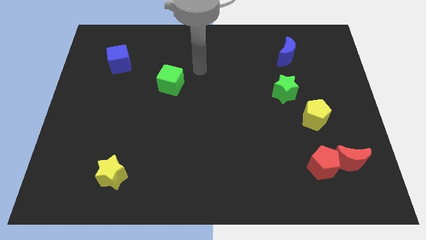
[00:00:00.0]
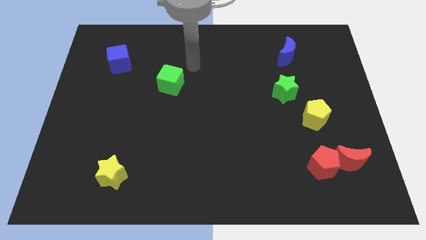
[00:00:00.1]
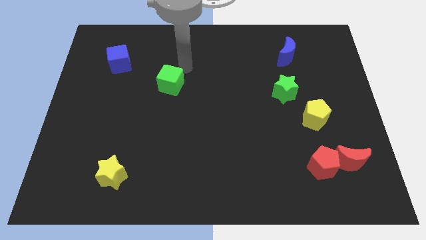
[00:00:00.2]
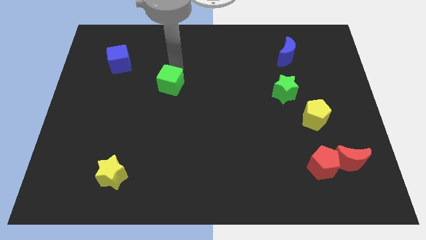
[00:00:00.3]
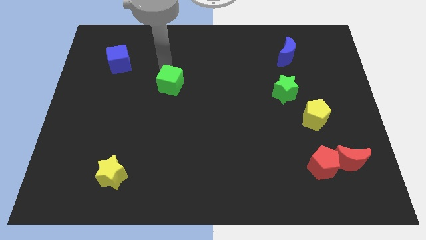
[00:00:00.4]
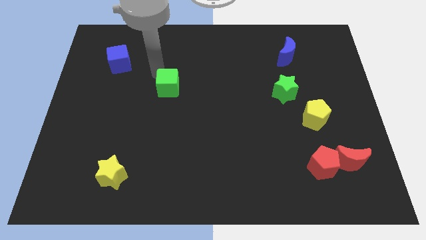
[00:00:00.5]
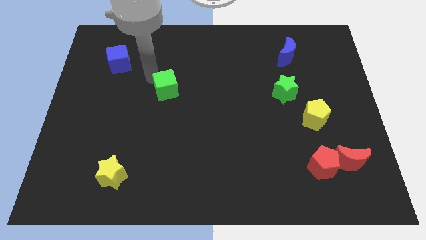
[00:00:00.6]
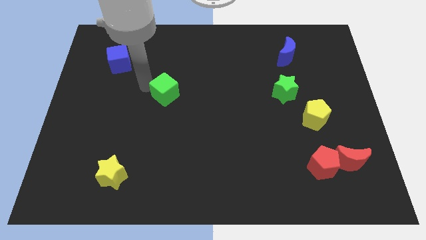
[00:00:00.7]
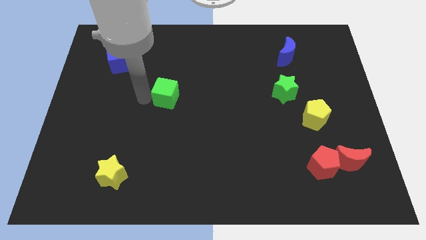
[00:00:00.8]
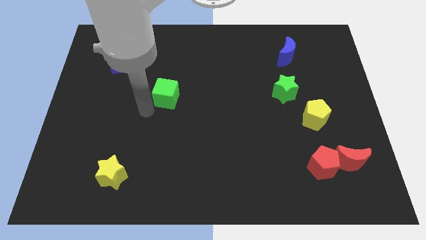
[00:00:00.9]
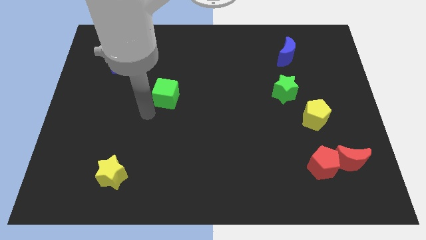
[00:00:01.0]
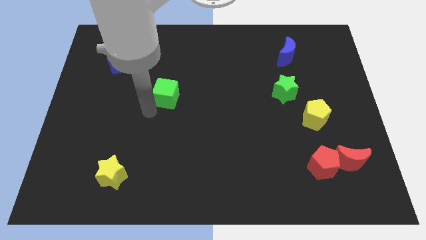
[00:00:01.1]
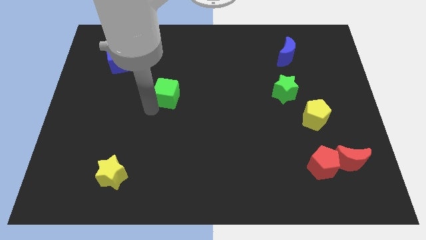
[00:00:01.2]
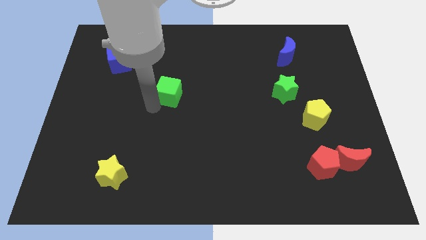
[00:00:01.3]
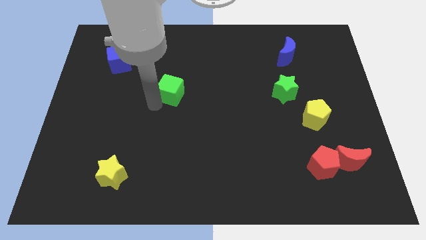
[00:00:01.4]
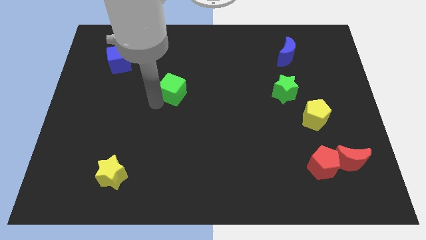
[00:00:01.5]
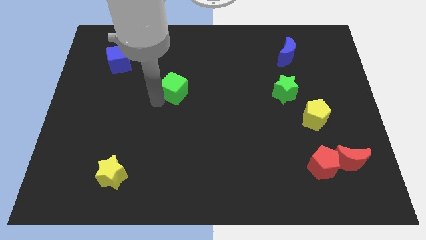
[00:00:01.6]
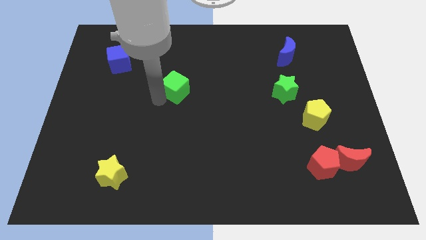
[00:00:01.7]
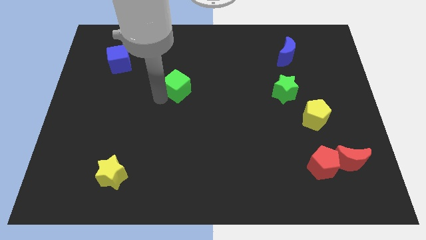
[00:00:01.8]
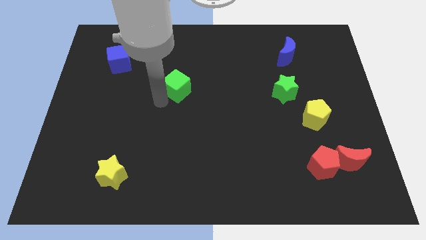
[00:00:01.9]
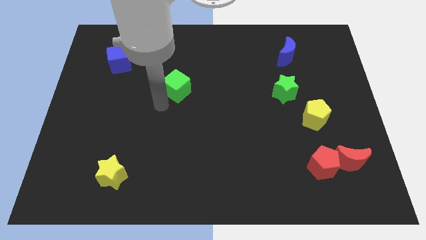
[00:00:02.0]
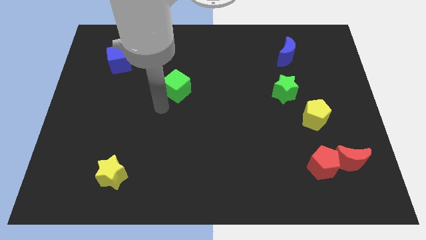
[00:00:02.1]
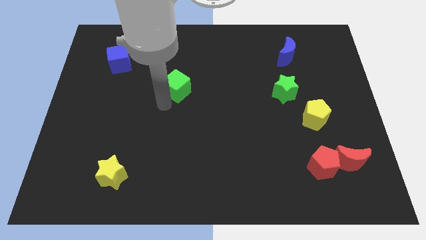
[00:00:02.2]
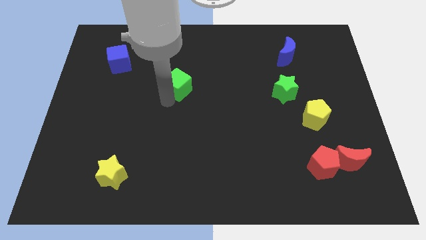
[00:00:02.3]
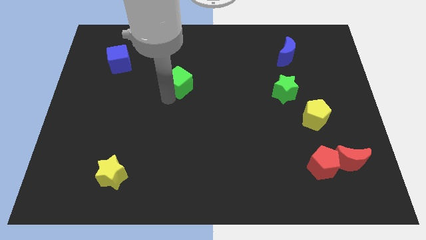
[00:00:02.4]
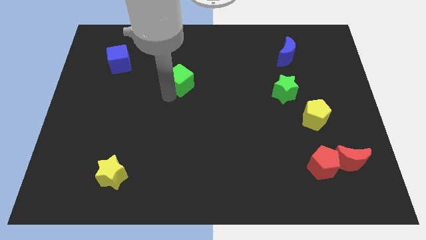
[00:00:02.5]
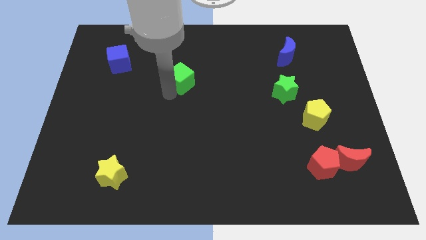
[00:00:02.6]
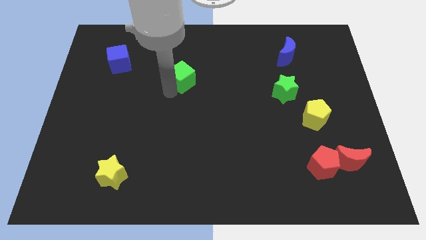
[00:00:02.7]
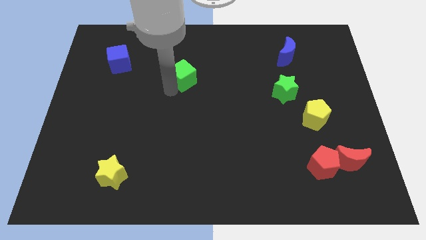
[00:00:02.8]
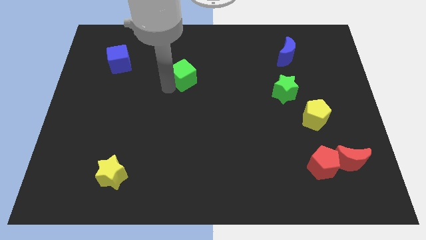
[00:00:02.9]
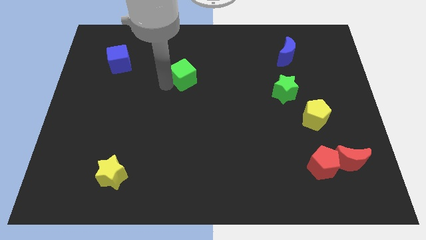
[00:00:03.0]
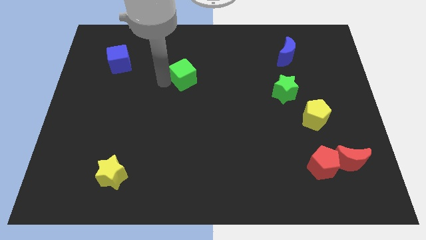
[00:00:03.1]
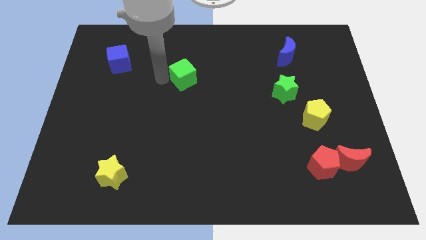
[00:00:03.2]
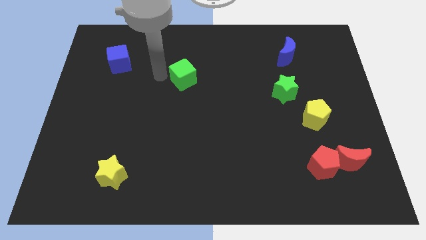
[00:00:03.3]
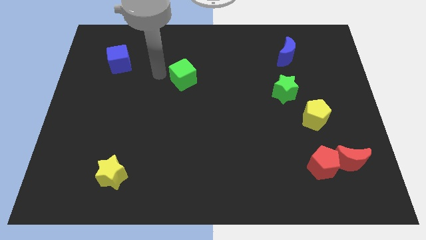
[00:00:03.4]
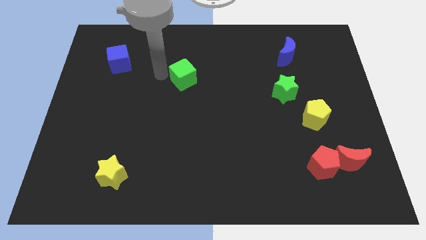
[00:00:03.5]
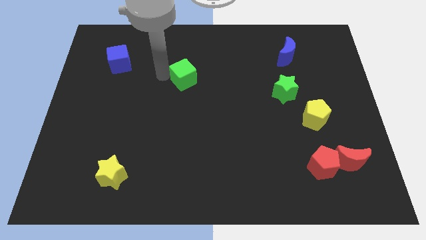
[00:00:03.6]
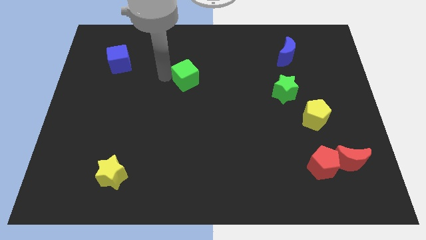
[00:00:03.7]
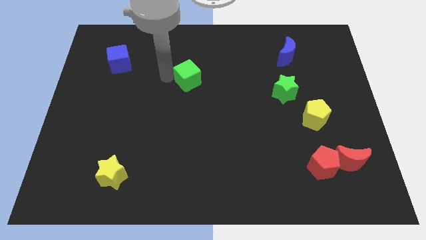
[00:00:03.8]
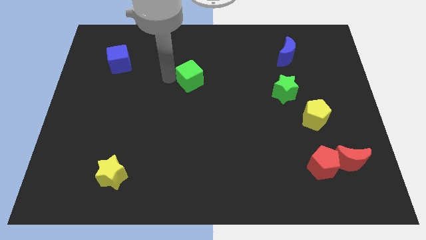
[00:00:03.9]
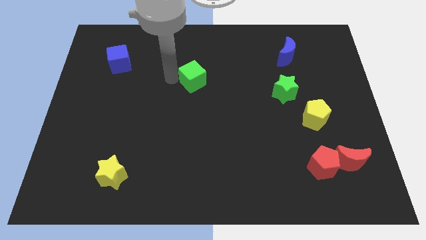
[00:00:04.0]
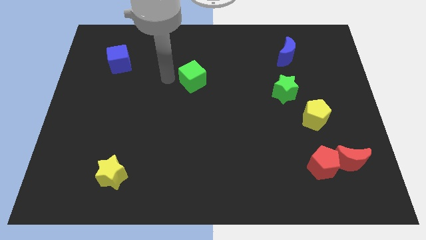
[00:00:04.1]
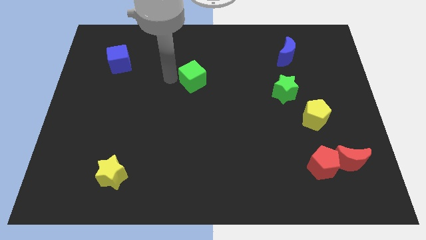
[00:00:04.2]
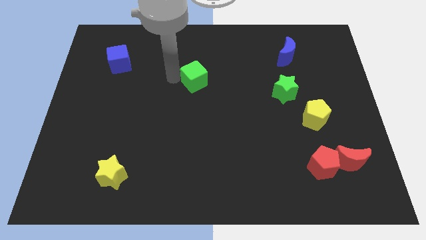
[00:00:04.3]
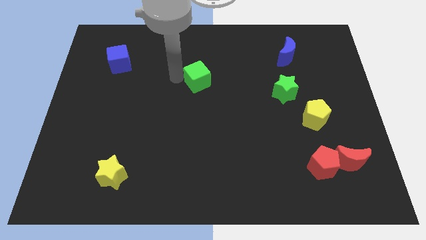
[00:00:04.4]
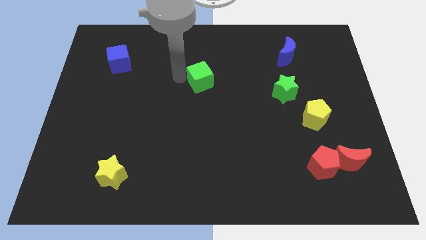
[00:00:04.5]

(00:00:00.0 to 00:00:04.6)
slide the green cube somewhat to the right

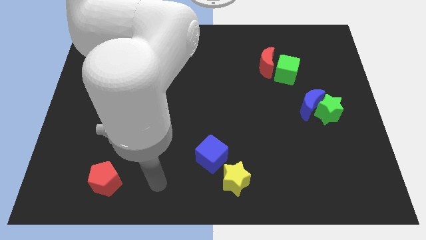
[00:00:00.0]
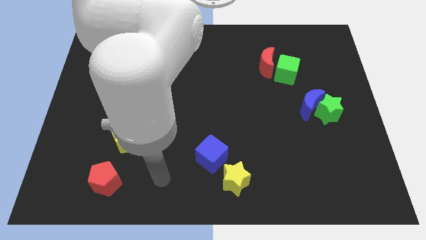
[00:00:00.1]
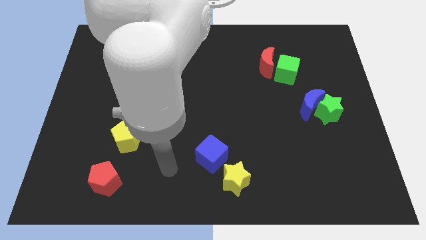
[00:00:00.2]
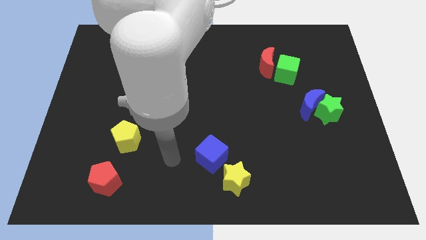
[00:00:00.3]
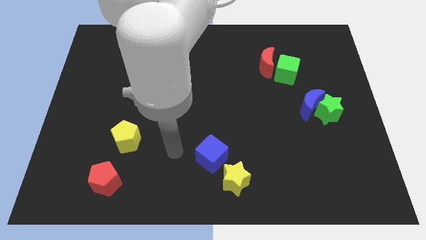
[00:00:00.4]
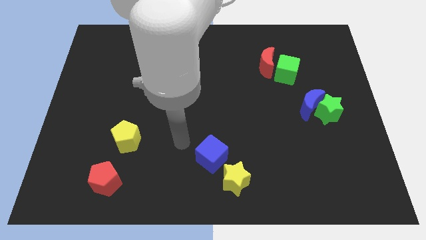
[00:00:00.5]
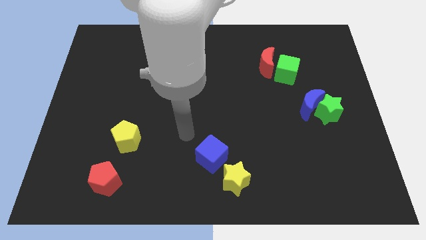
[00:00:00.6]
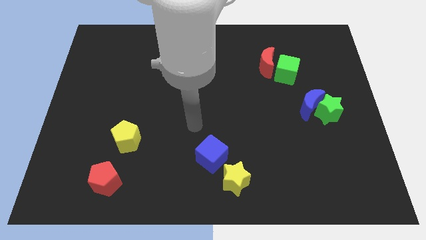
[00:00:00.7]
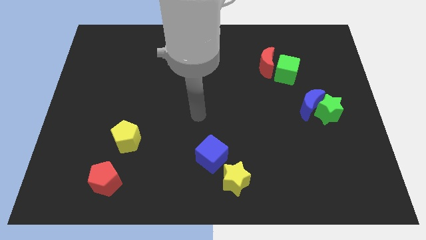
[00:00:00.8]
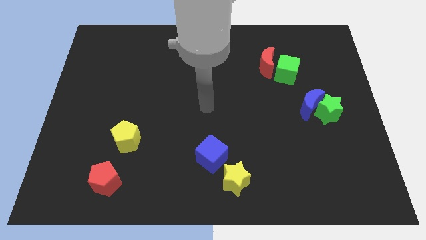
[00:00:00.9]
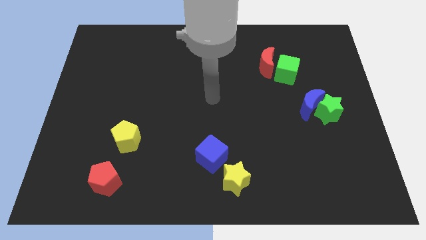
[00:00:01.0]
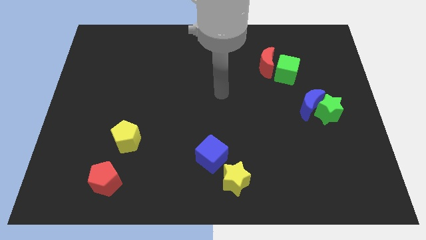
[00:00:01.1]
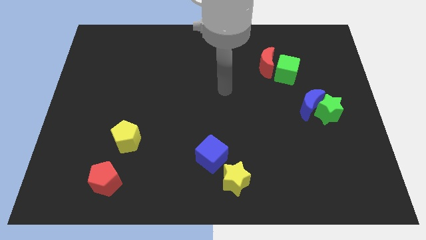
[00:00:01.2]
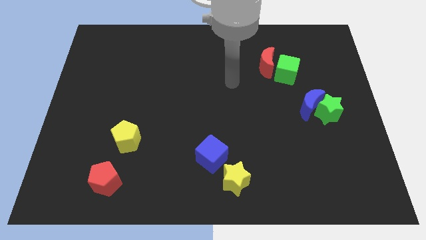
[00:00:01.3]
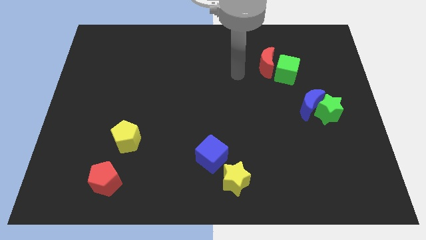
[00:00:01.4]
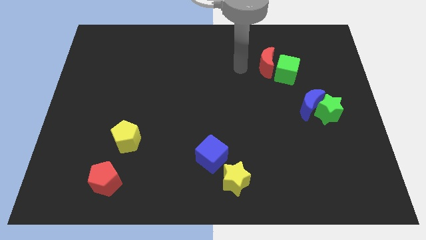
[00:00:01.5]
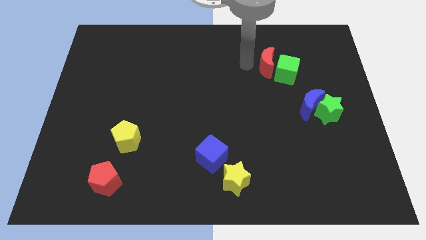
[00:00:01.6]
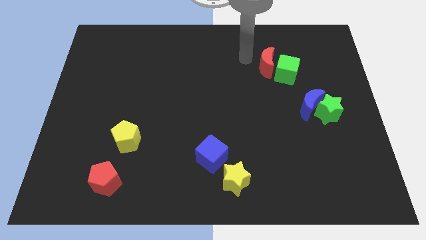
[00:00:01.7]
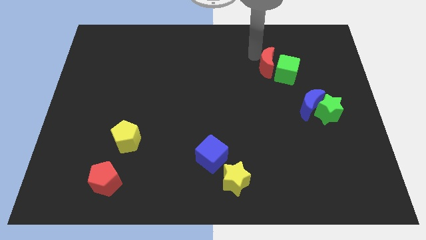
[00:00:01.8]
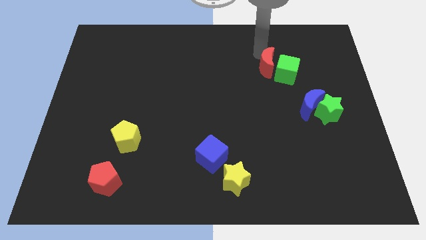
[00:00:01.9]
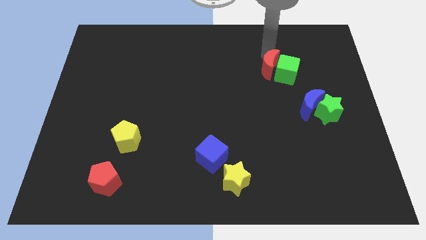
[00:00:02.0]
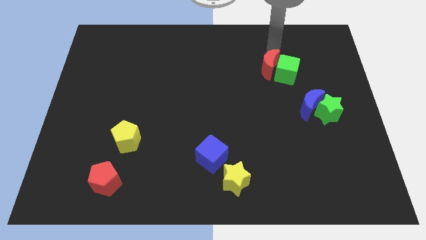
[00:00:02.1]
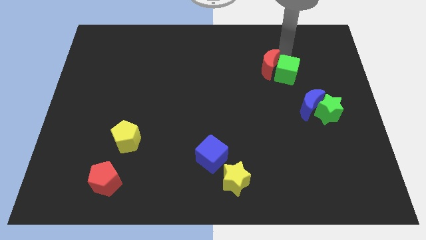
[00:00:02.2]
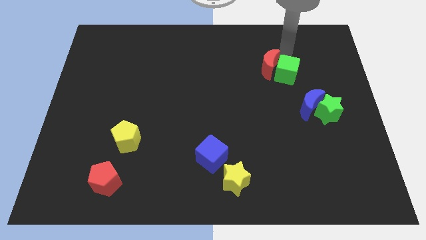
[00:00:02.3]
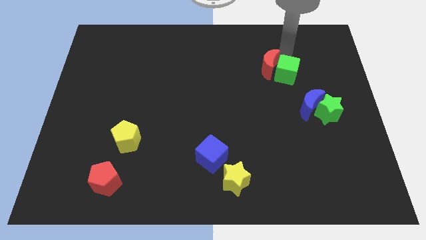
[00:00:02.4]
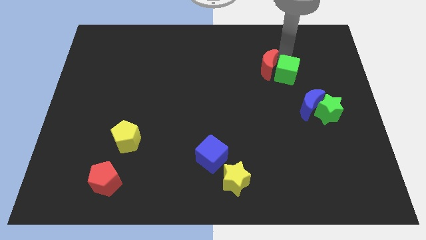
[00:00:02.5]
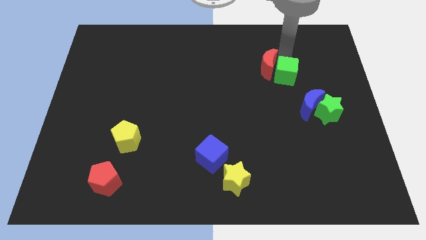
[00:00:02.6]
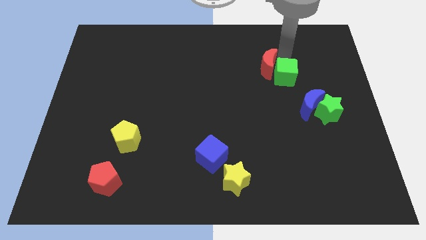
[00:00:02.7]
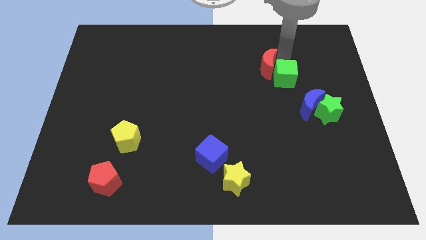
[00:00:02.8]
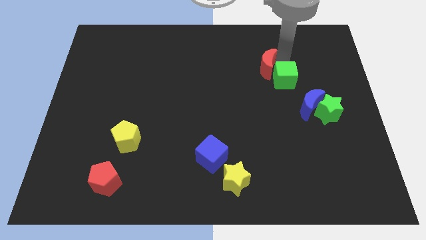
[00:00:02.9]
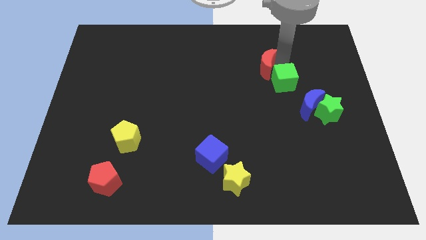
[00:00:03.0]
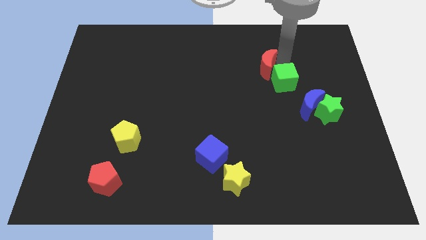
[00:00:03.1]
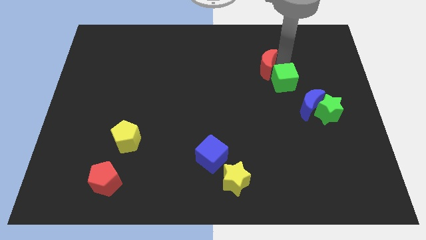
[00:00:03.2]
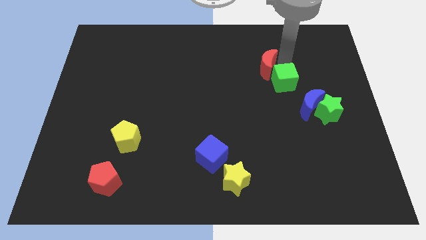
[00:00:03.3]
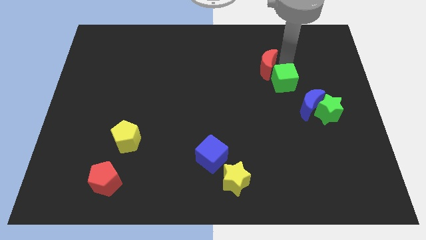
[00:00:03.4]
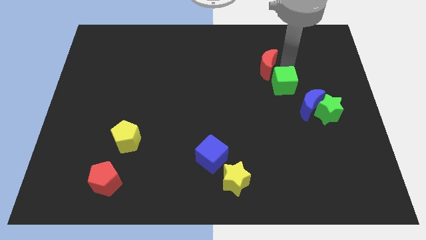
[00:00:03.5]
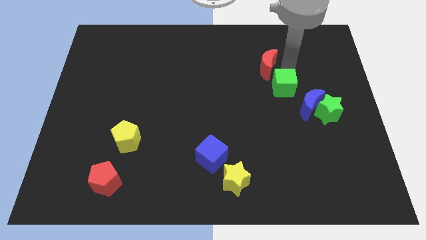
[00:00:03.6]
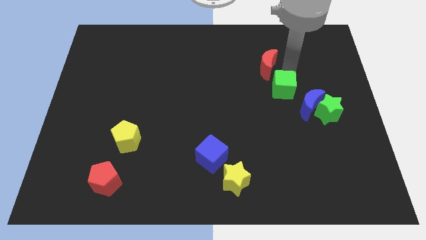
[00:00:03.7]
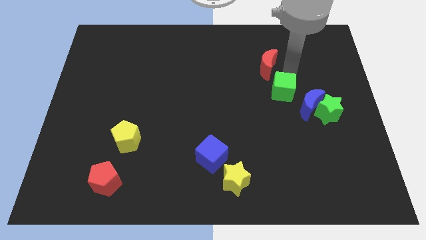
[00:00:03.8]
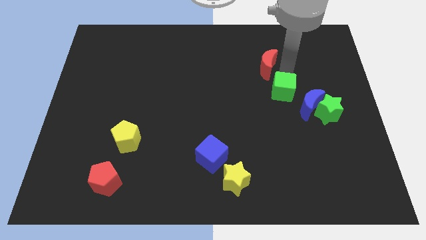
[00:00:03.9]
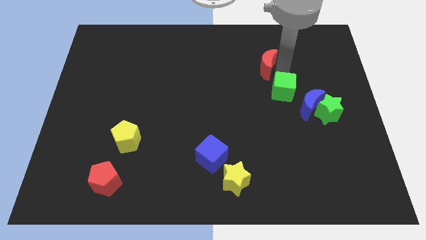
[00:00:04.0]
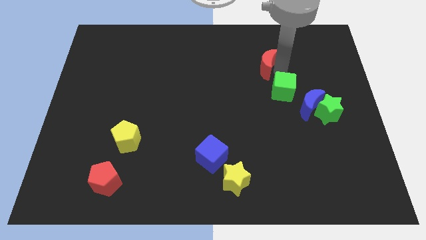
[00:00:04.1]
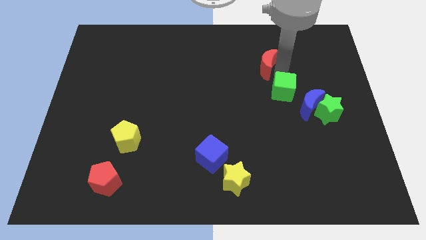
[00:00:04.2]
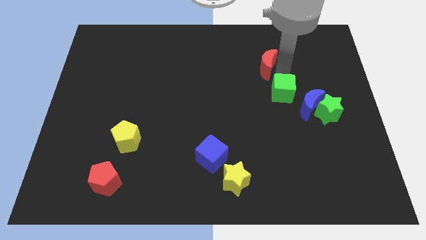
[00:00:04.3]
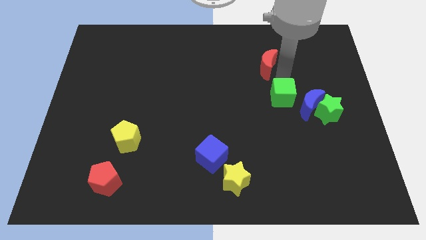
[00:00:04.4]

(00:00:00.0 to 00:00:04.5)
slide the green cube down a bit
